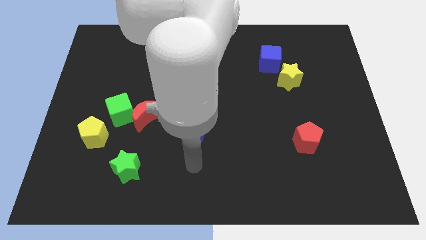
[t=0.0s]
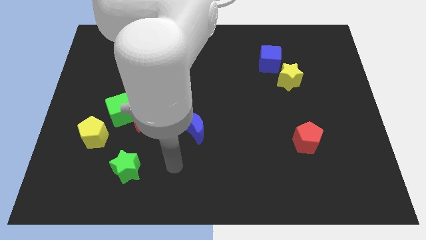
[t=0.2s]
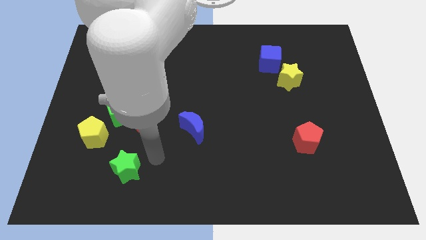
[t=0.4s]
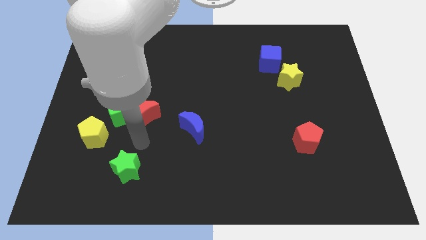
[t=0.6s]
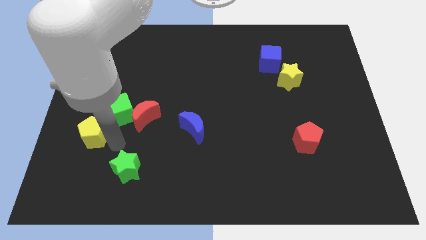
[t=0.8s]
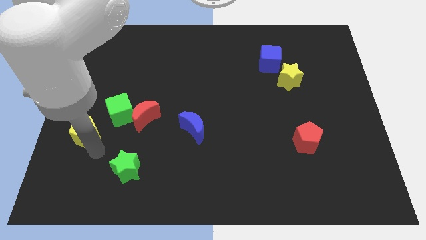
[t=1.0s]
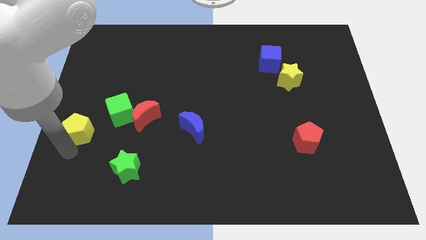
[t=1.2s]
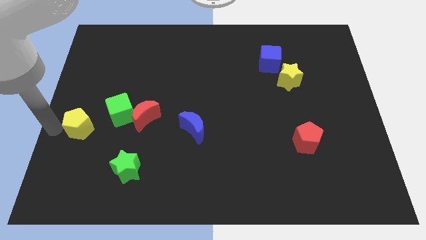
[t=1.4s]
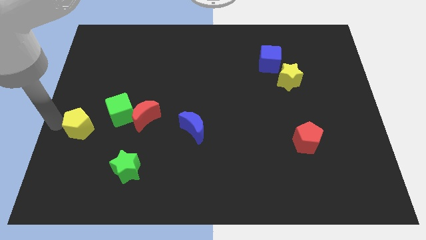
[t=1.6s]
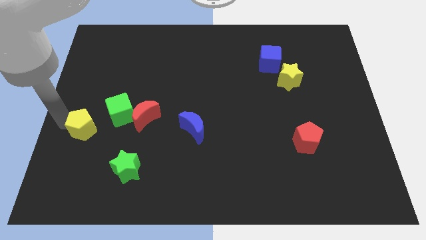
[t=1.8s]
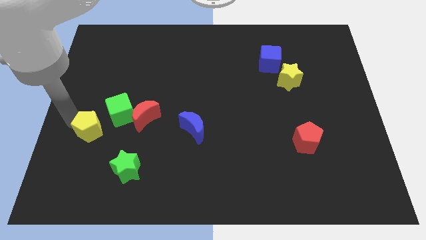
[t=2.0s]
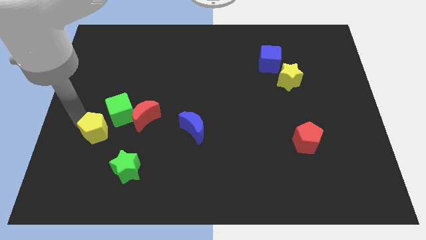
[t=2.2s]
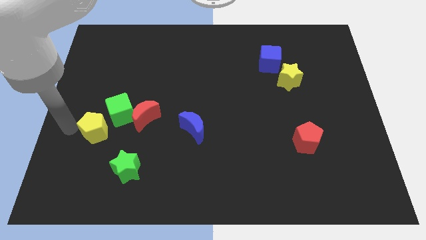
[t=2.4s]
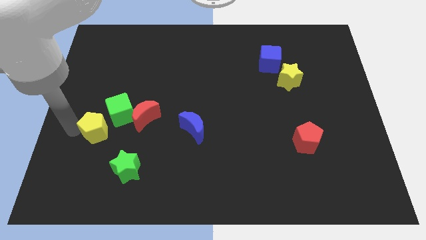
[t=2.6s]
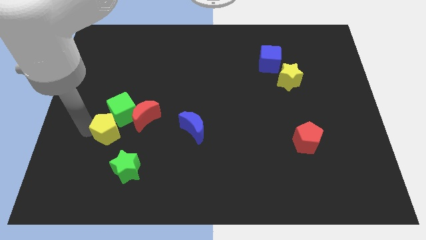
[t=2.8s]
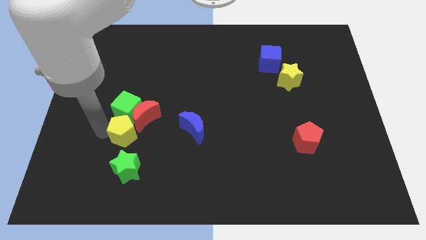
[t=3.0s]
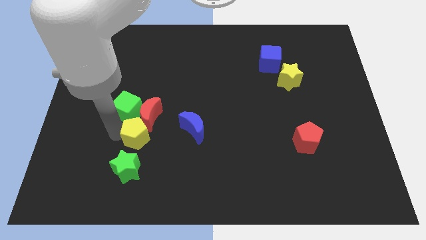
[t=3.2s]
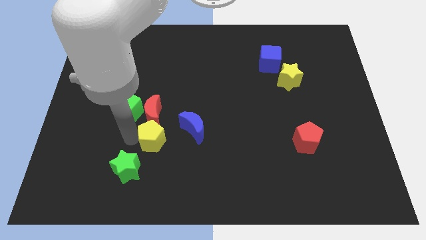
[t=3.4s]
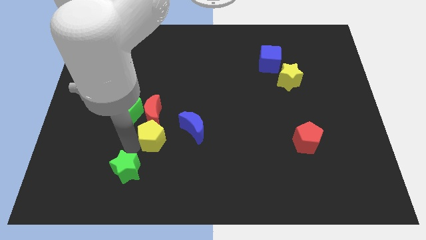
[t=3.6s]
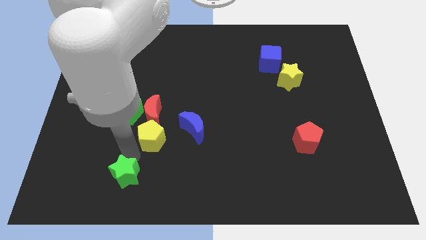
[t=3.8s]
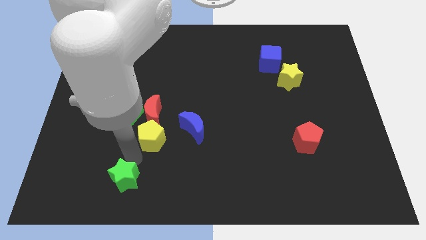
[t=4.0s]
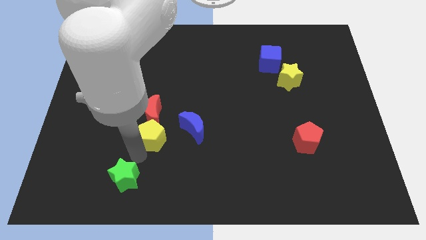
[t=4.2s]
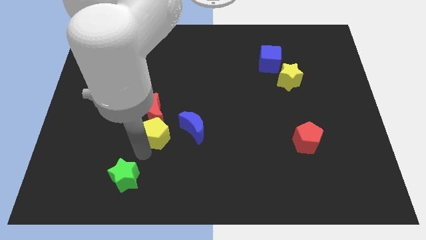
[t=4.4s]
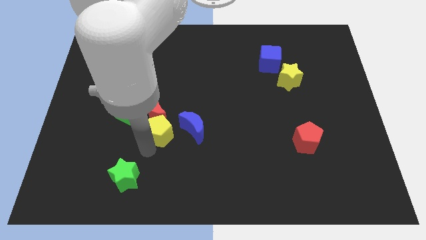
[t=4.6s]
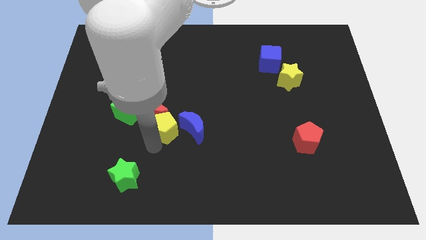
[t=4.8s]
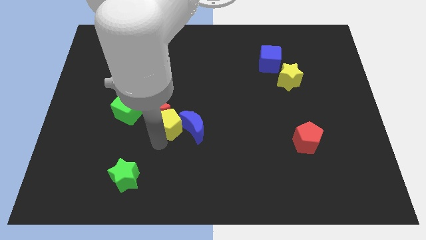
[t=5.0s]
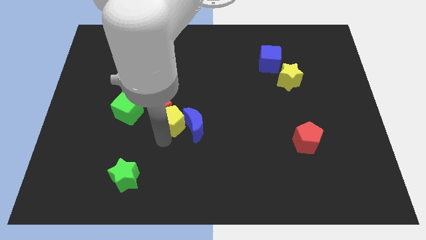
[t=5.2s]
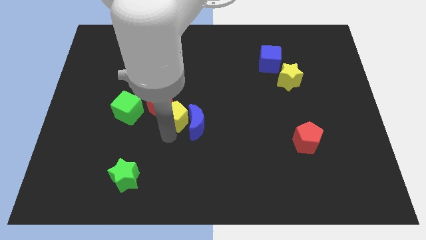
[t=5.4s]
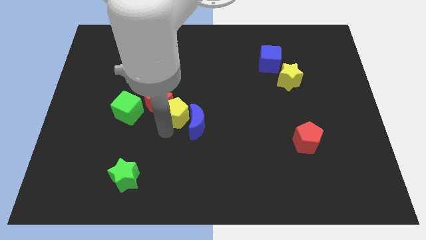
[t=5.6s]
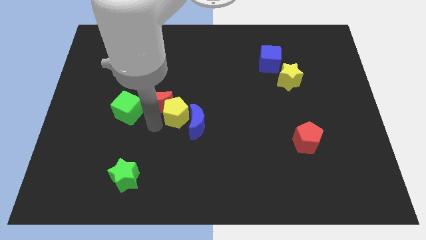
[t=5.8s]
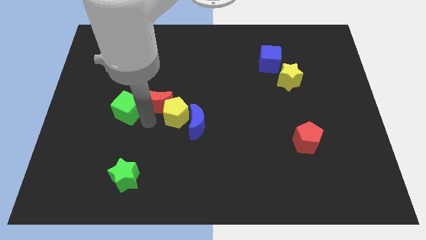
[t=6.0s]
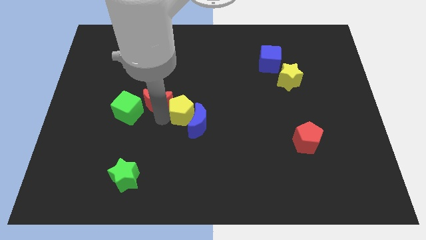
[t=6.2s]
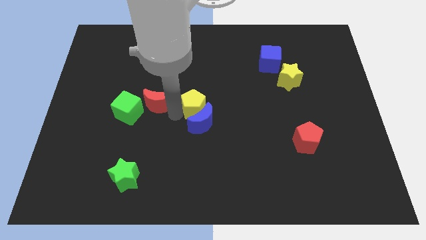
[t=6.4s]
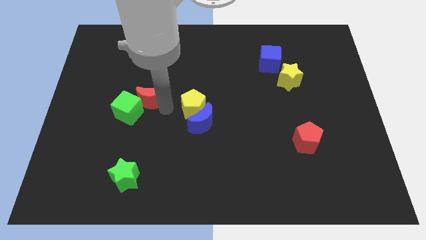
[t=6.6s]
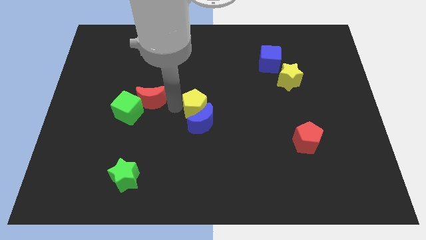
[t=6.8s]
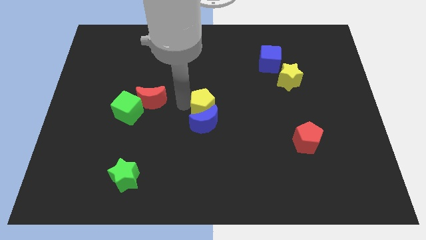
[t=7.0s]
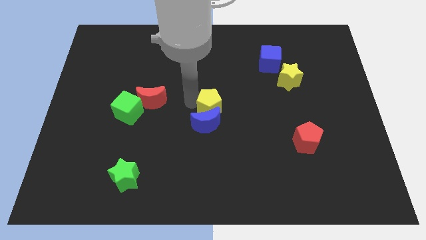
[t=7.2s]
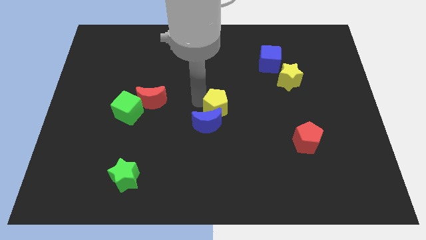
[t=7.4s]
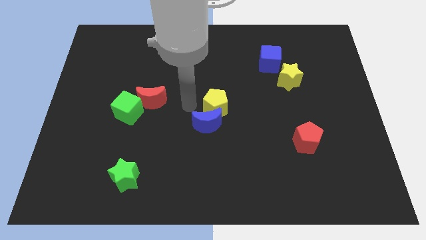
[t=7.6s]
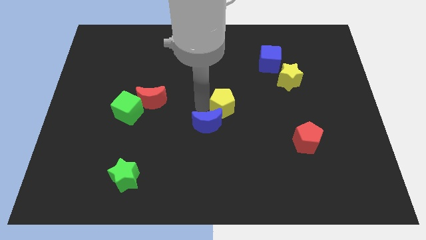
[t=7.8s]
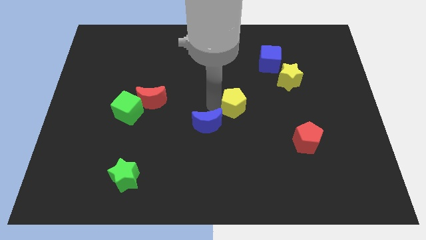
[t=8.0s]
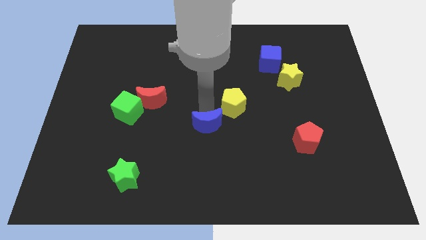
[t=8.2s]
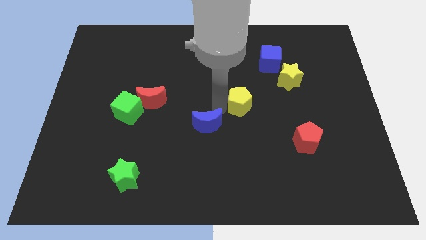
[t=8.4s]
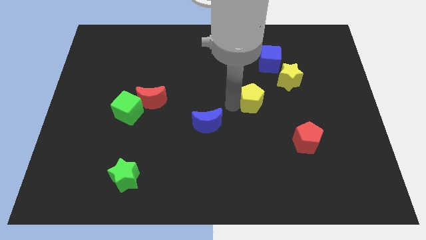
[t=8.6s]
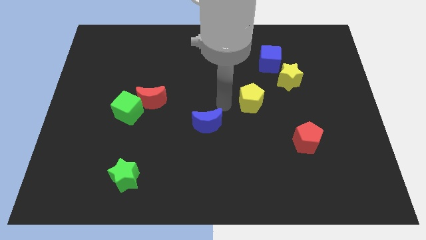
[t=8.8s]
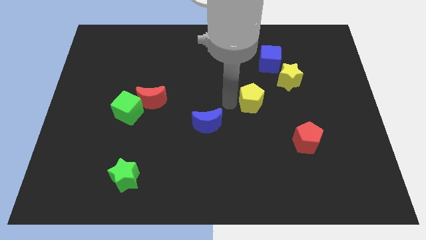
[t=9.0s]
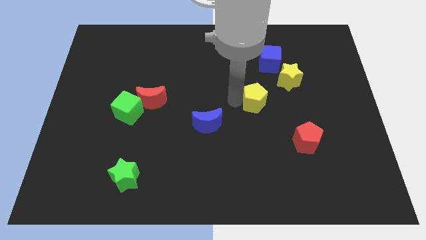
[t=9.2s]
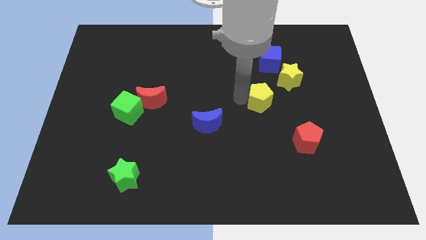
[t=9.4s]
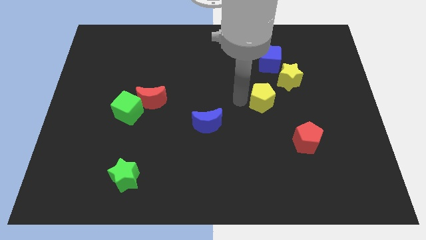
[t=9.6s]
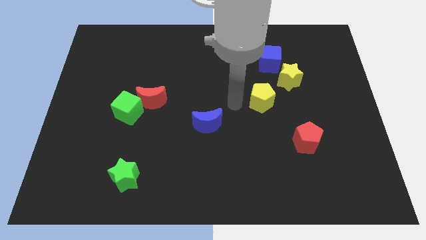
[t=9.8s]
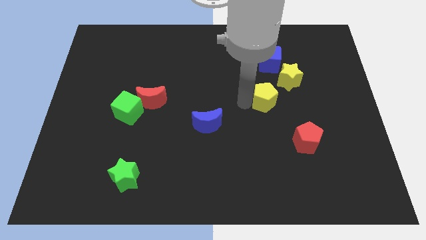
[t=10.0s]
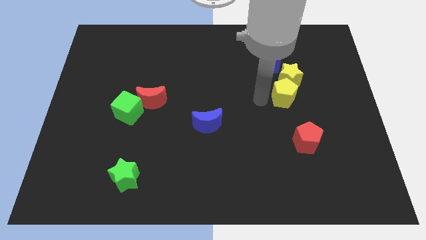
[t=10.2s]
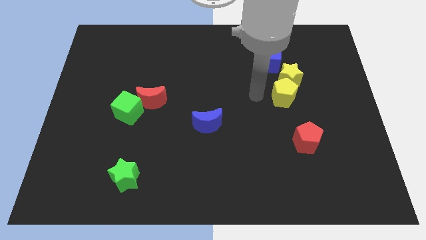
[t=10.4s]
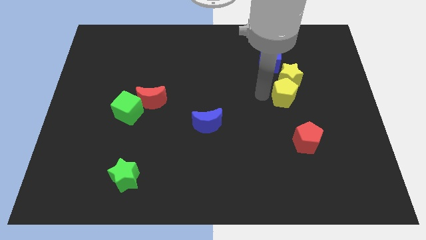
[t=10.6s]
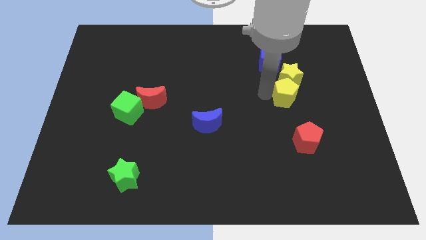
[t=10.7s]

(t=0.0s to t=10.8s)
push the yellow pentagon to the bottom right of the yellow star

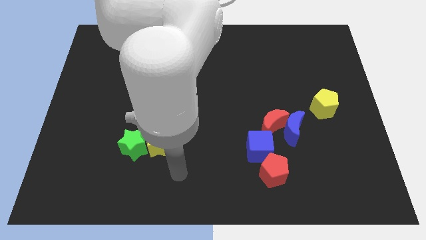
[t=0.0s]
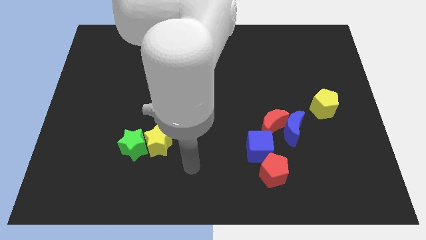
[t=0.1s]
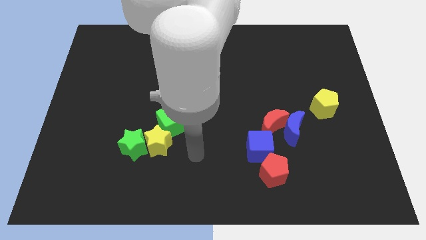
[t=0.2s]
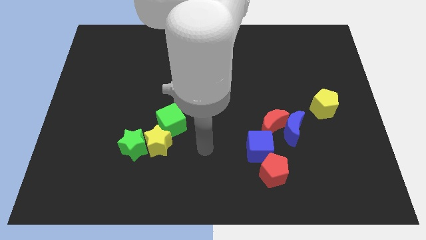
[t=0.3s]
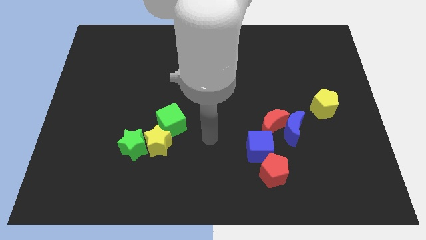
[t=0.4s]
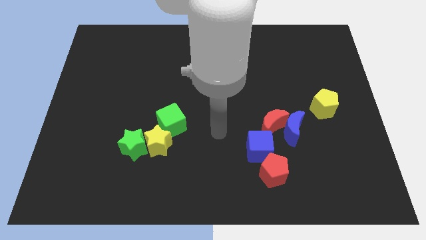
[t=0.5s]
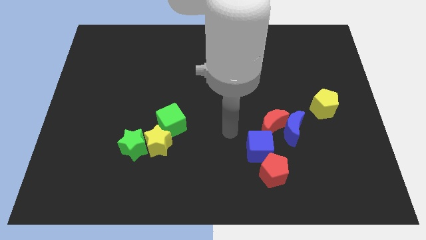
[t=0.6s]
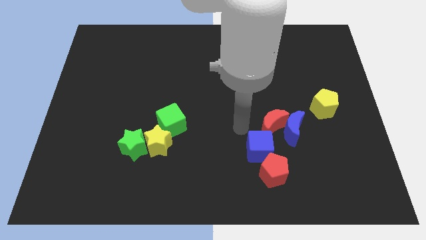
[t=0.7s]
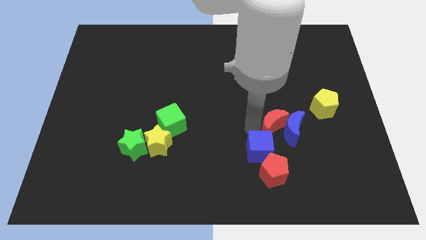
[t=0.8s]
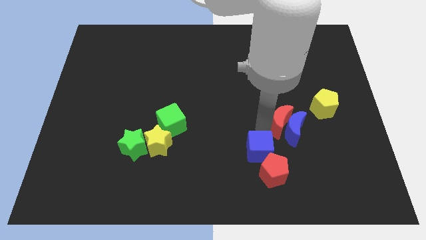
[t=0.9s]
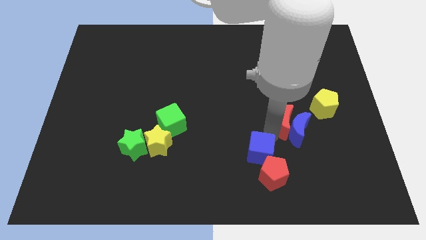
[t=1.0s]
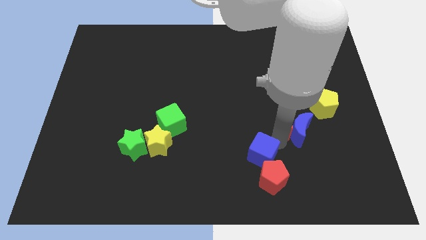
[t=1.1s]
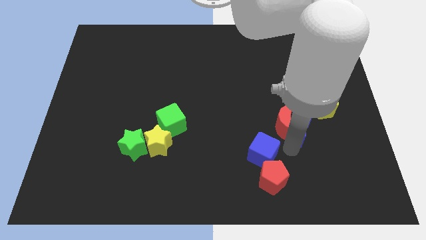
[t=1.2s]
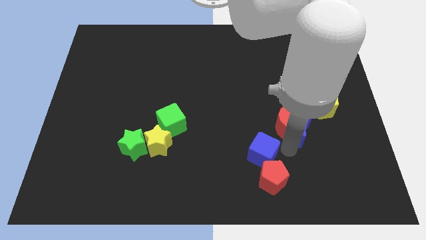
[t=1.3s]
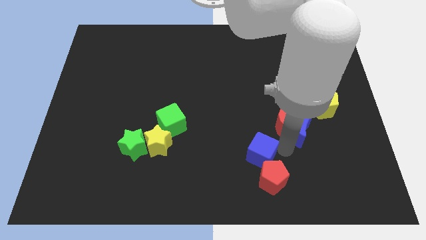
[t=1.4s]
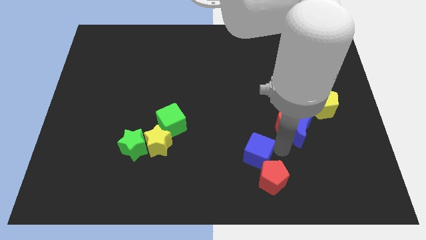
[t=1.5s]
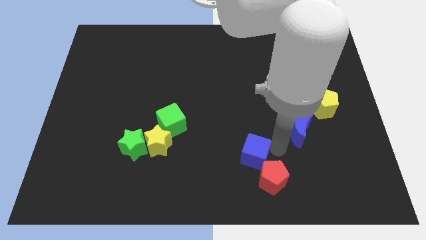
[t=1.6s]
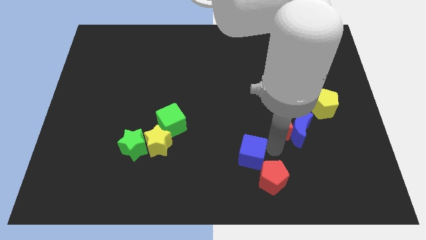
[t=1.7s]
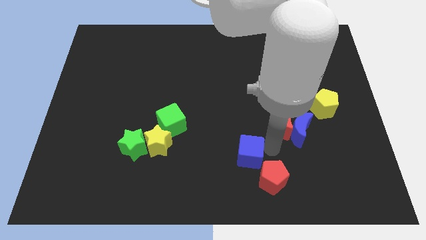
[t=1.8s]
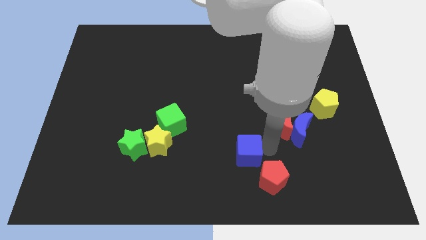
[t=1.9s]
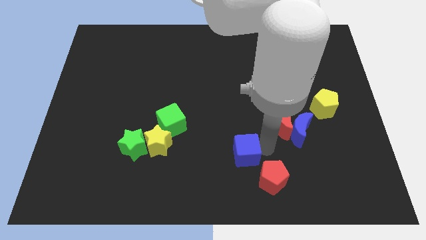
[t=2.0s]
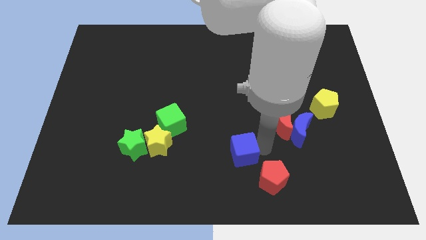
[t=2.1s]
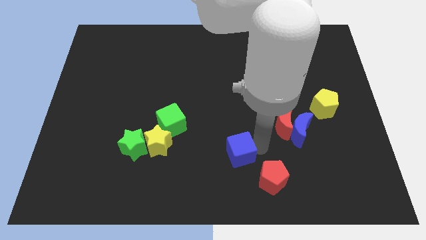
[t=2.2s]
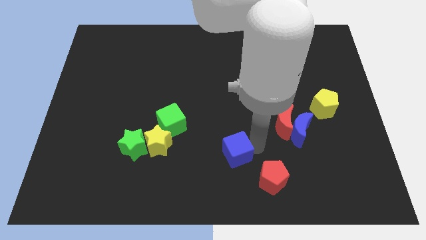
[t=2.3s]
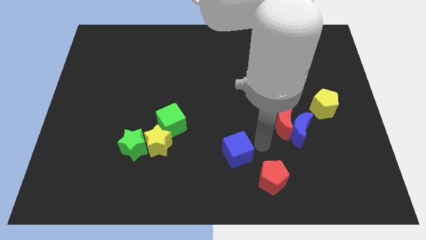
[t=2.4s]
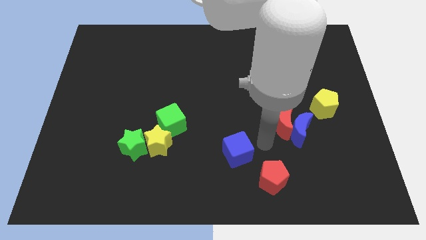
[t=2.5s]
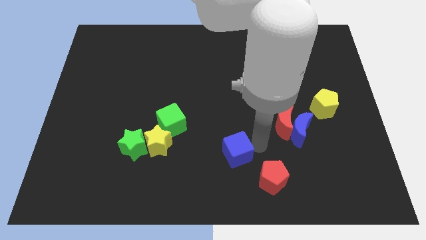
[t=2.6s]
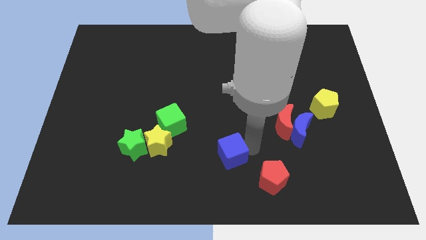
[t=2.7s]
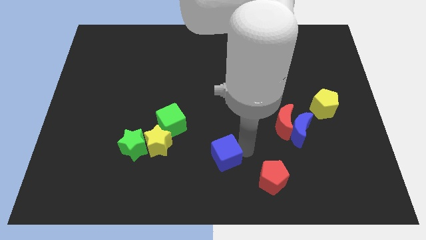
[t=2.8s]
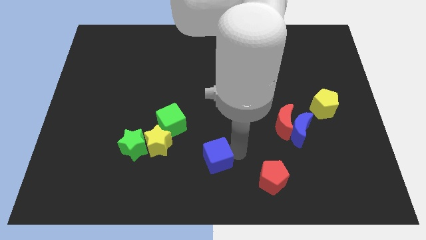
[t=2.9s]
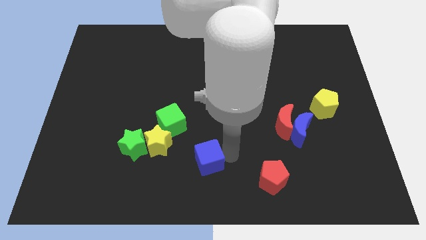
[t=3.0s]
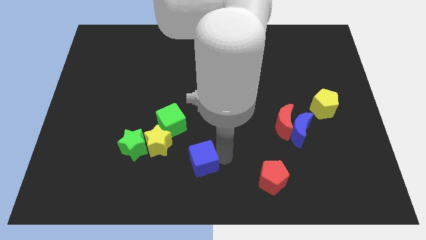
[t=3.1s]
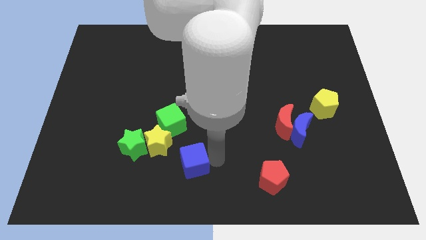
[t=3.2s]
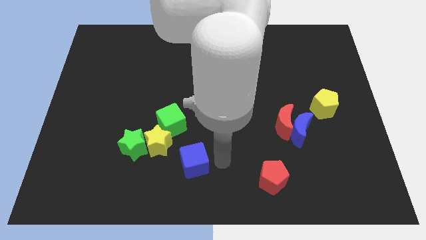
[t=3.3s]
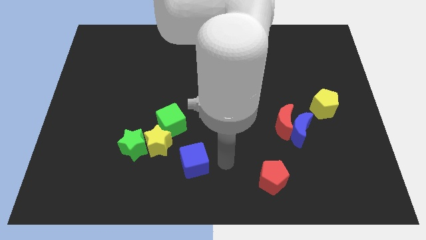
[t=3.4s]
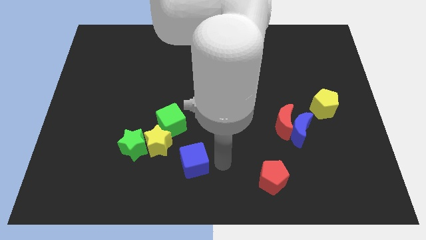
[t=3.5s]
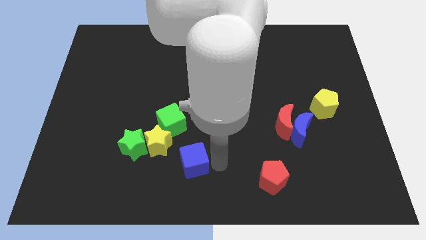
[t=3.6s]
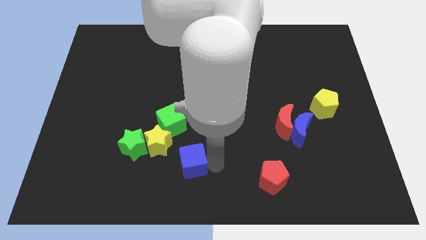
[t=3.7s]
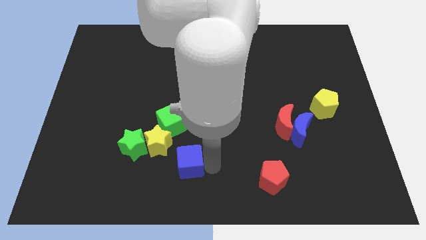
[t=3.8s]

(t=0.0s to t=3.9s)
put the blue cube below the green cube
